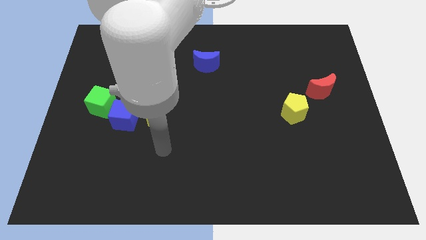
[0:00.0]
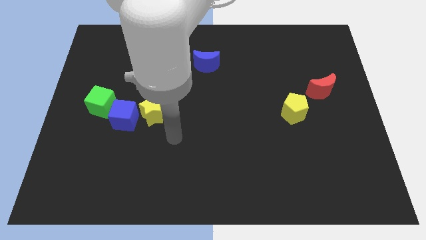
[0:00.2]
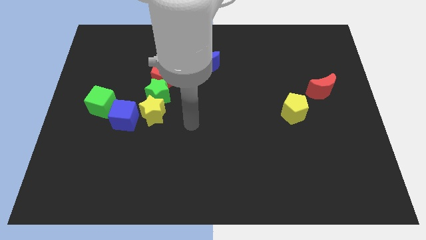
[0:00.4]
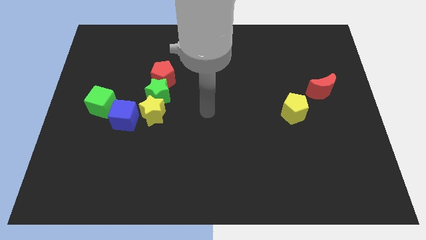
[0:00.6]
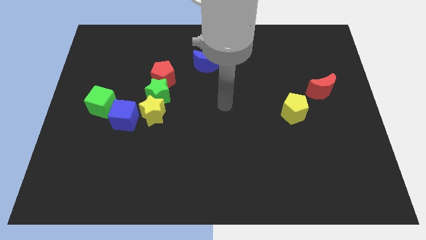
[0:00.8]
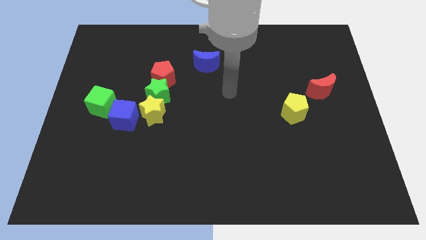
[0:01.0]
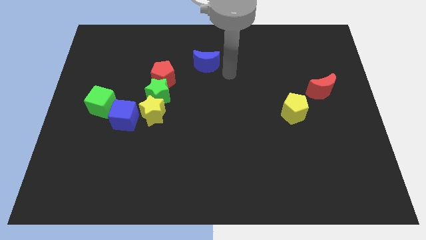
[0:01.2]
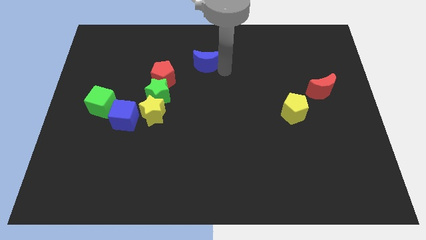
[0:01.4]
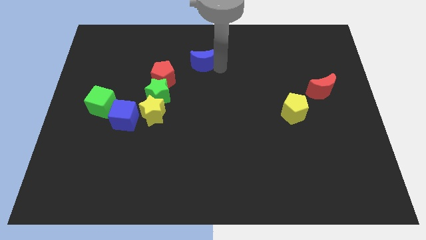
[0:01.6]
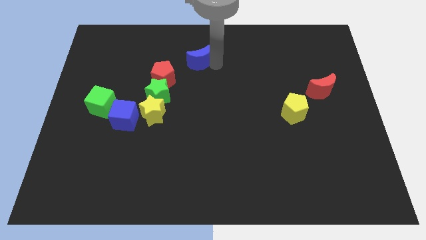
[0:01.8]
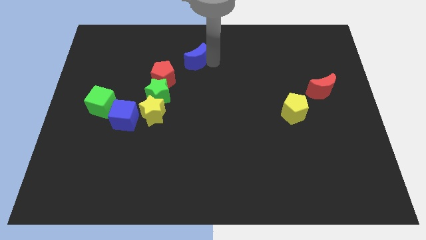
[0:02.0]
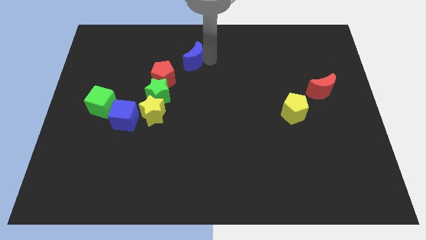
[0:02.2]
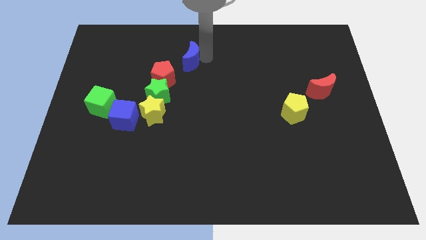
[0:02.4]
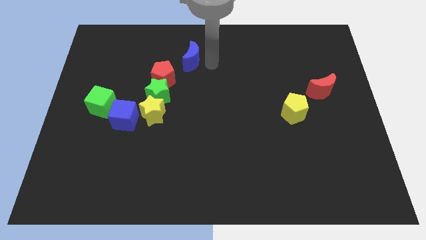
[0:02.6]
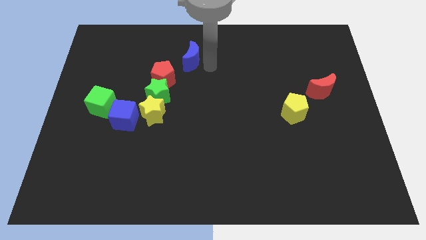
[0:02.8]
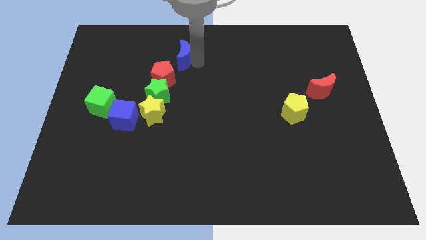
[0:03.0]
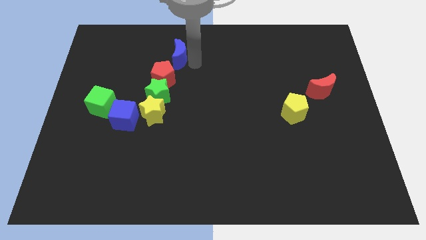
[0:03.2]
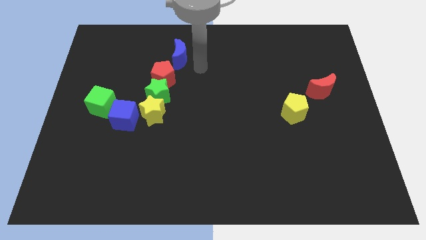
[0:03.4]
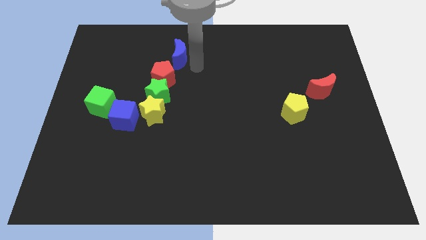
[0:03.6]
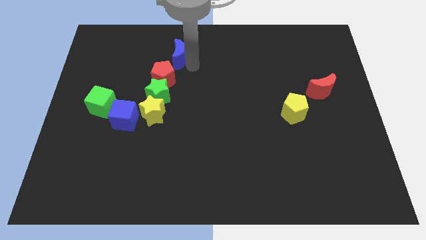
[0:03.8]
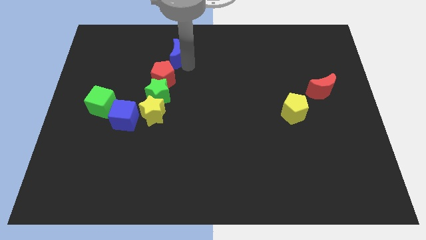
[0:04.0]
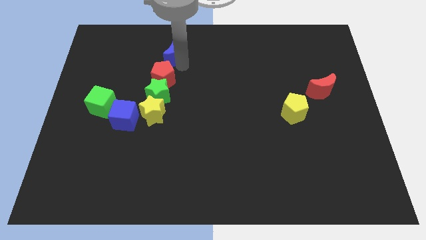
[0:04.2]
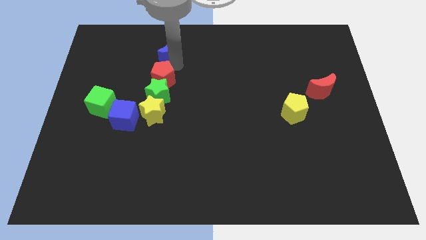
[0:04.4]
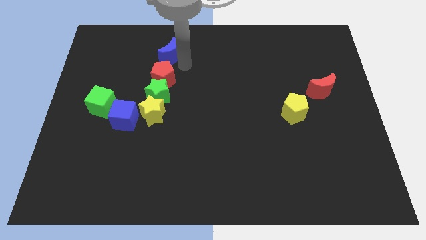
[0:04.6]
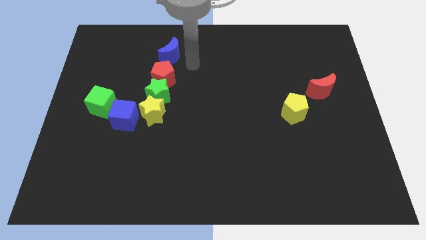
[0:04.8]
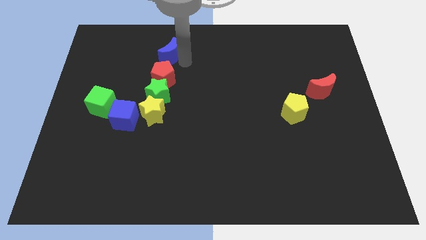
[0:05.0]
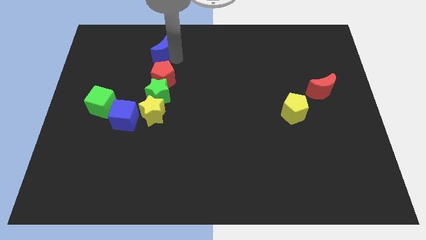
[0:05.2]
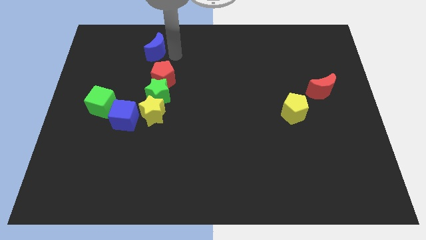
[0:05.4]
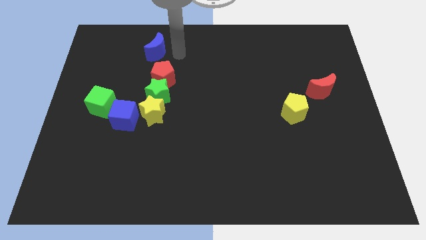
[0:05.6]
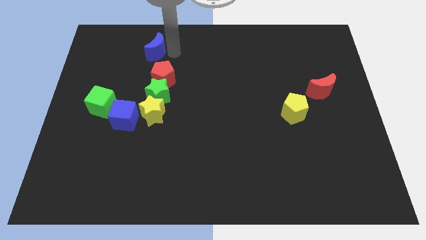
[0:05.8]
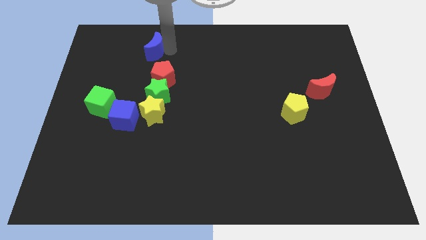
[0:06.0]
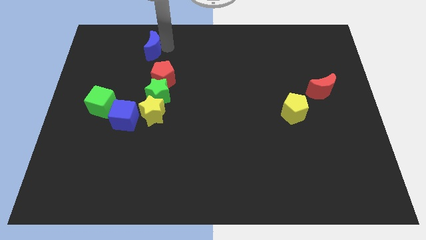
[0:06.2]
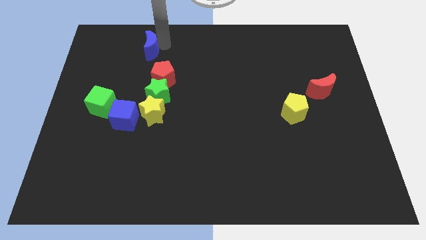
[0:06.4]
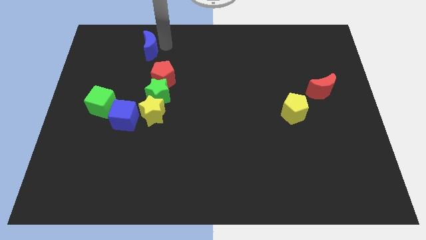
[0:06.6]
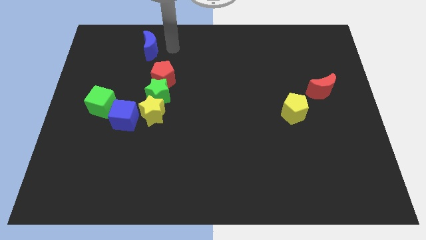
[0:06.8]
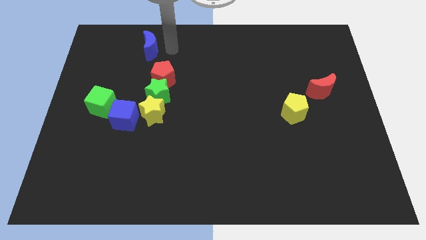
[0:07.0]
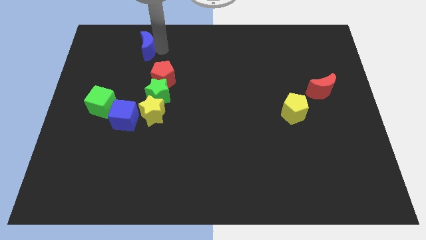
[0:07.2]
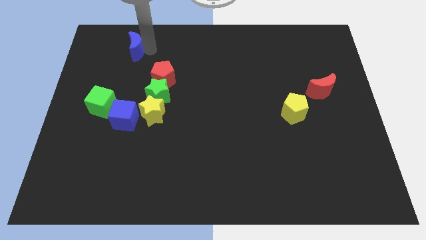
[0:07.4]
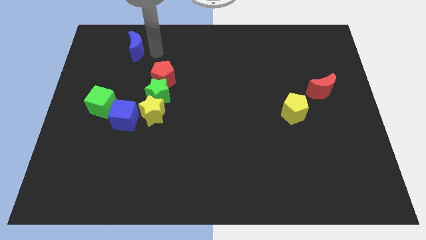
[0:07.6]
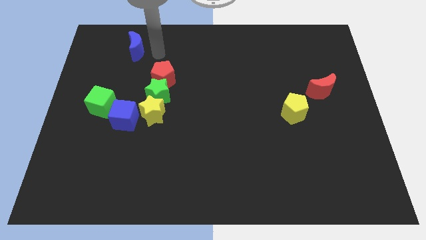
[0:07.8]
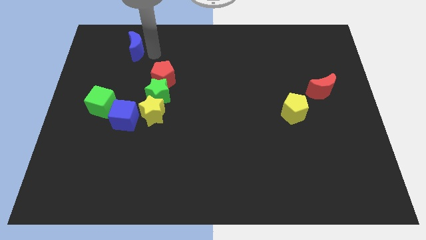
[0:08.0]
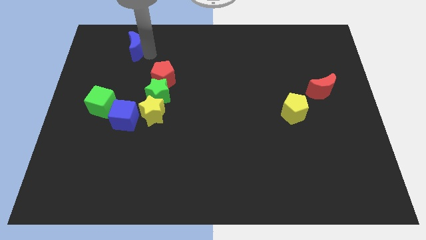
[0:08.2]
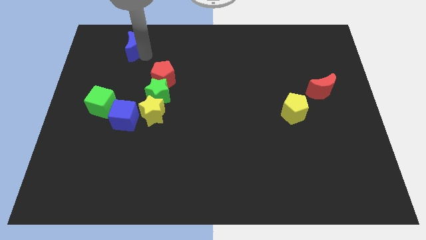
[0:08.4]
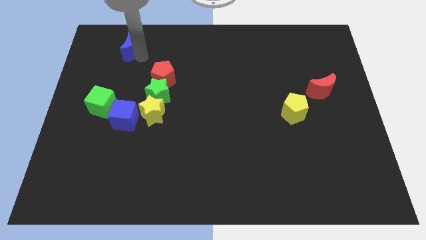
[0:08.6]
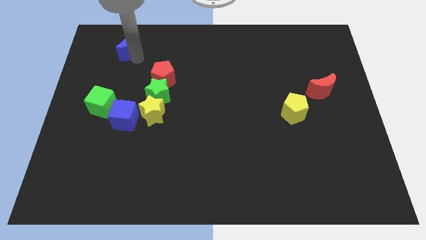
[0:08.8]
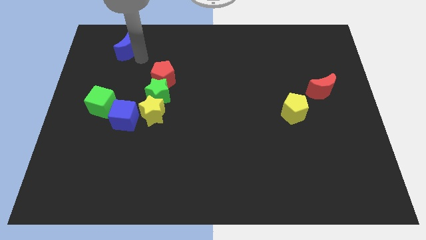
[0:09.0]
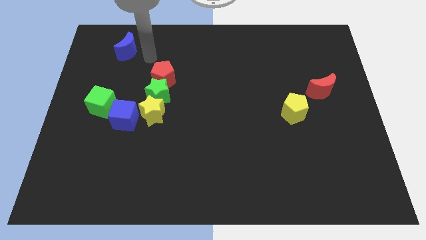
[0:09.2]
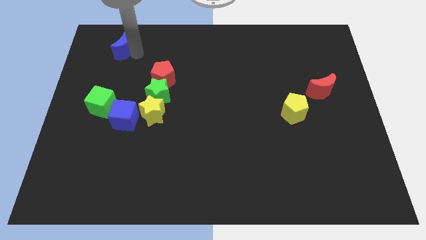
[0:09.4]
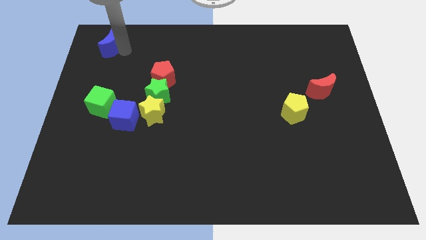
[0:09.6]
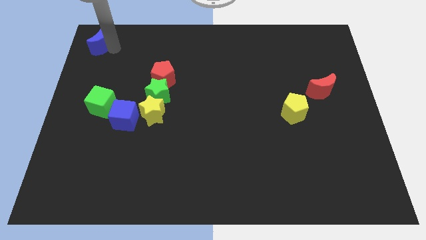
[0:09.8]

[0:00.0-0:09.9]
move the blue moon to the top left corner

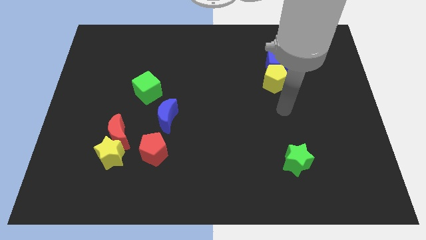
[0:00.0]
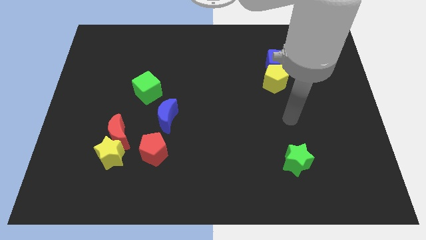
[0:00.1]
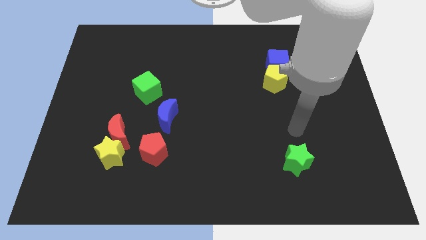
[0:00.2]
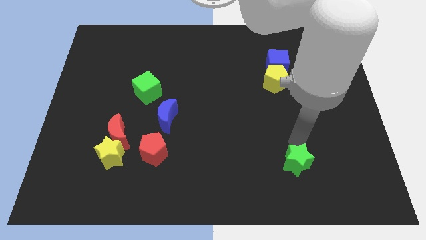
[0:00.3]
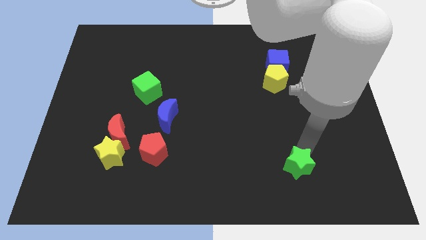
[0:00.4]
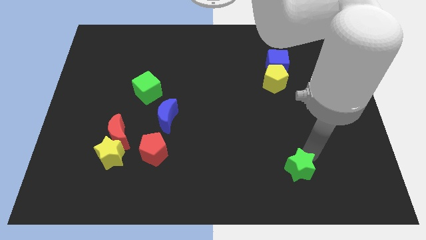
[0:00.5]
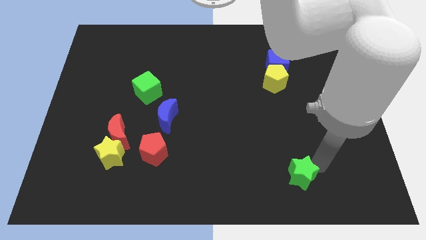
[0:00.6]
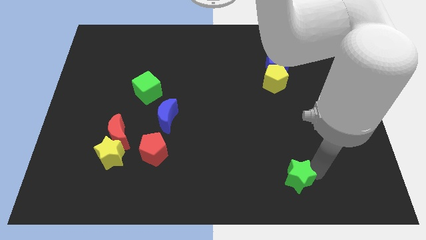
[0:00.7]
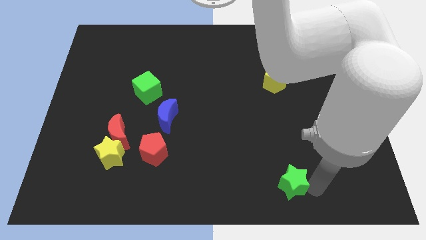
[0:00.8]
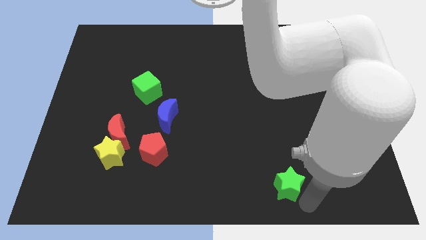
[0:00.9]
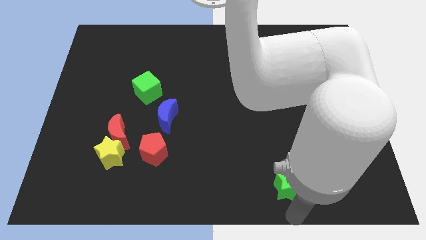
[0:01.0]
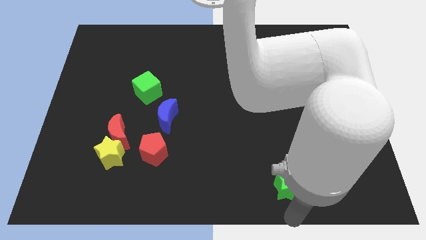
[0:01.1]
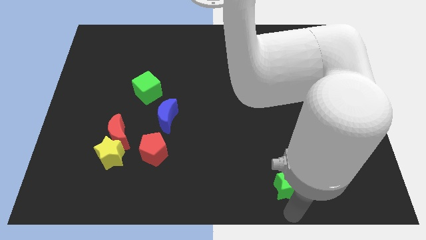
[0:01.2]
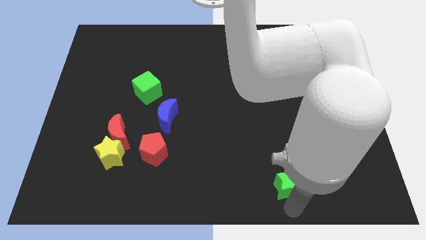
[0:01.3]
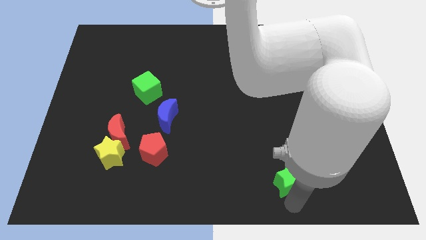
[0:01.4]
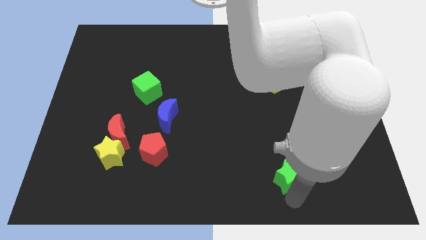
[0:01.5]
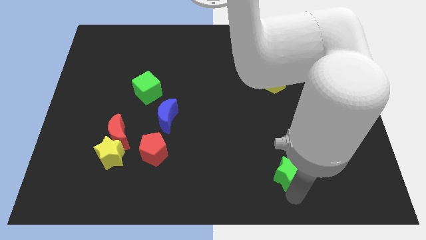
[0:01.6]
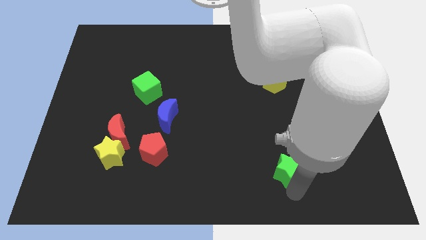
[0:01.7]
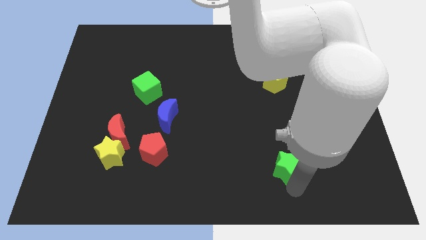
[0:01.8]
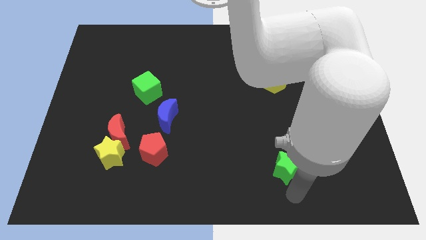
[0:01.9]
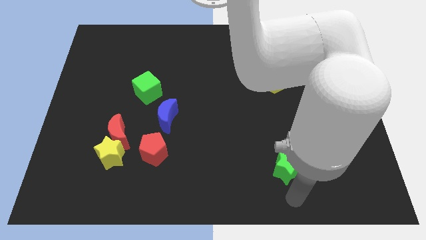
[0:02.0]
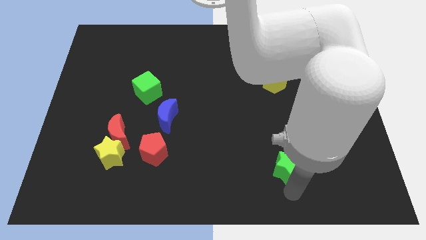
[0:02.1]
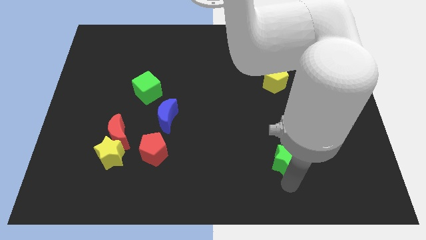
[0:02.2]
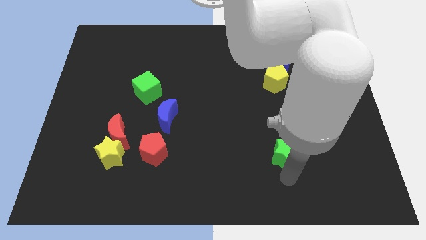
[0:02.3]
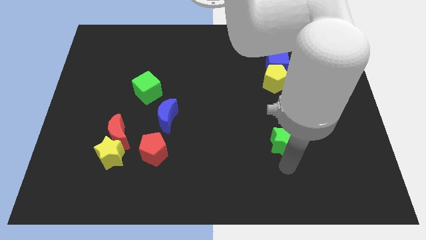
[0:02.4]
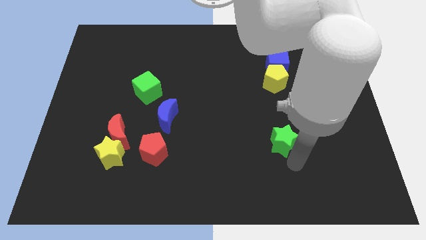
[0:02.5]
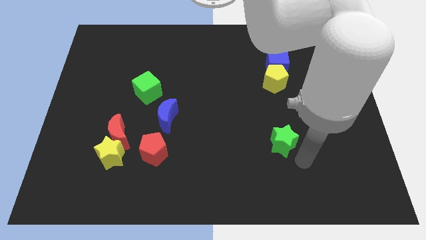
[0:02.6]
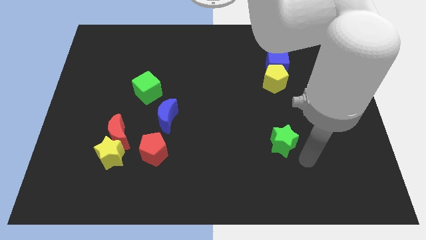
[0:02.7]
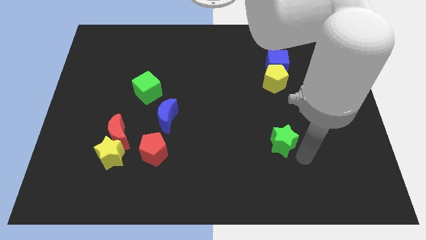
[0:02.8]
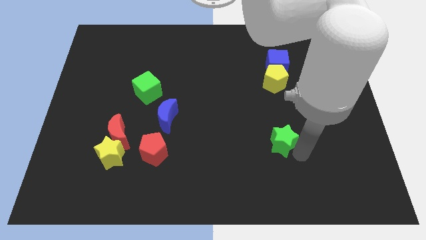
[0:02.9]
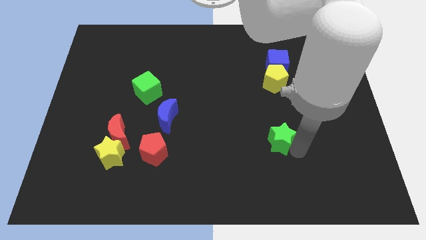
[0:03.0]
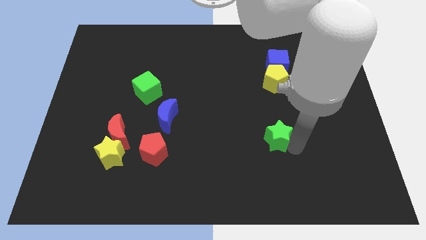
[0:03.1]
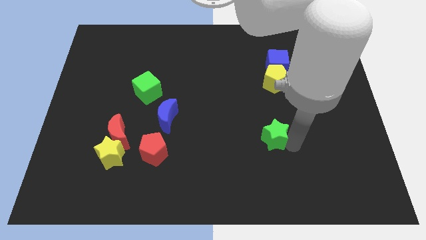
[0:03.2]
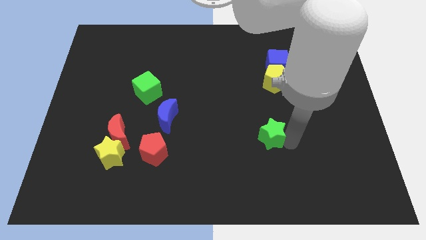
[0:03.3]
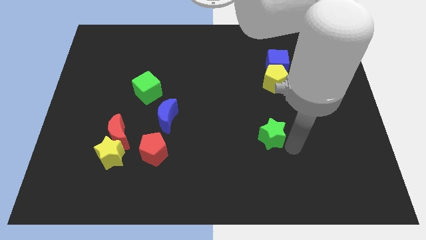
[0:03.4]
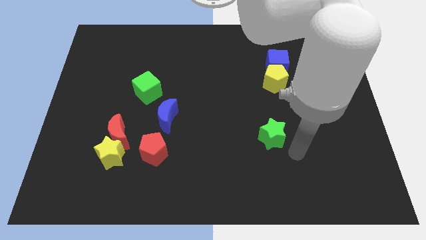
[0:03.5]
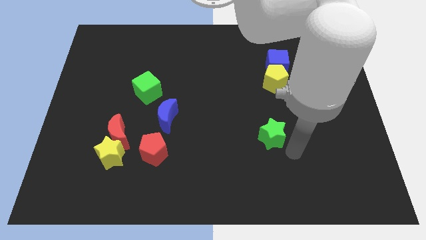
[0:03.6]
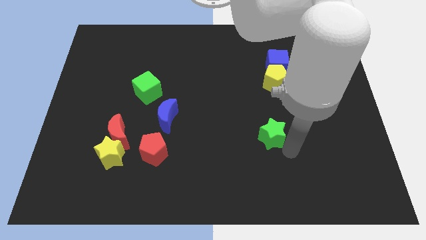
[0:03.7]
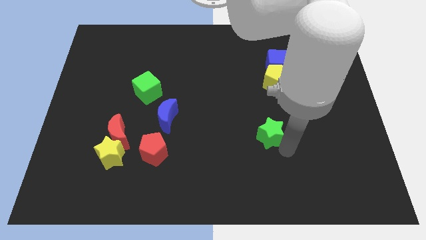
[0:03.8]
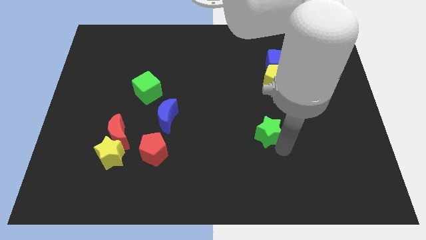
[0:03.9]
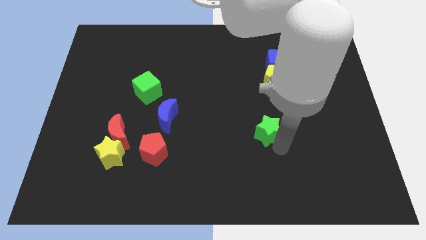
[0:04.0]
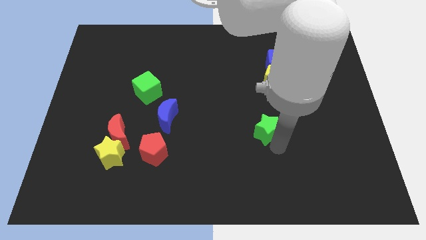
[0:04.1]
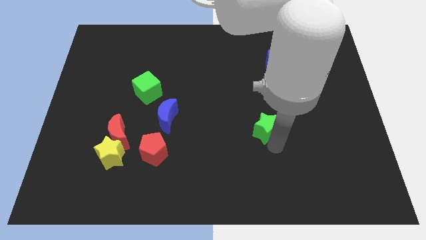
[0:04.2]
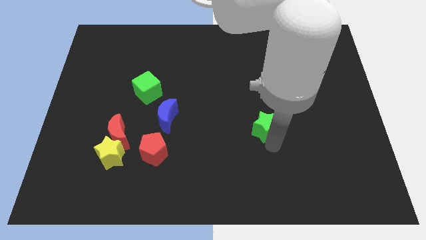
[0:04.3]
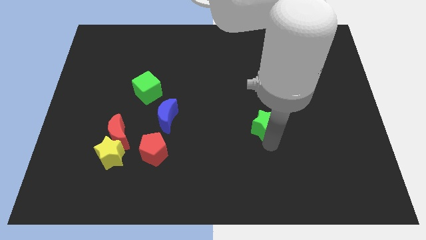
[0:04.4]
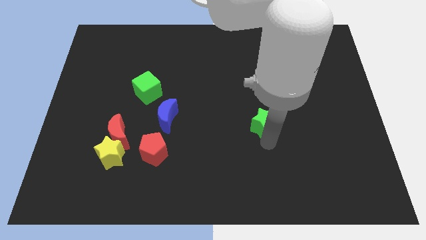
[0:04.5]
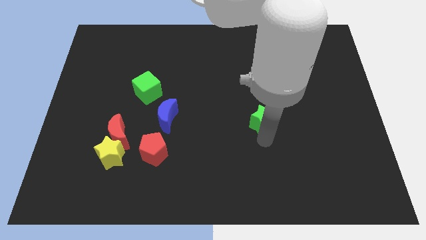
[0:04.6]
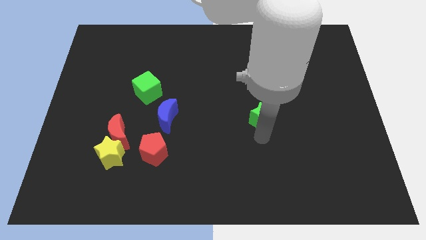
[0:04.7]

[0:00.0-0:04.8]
slide the green star to the center
